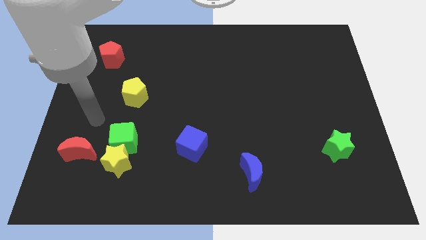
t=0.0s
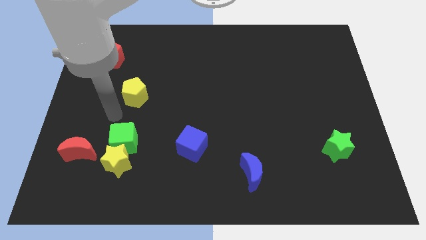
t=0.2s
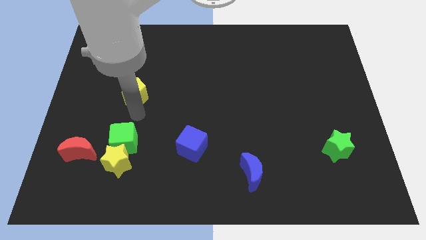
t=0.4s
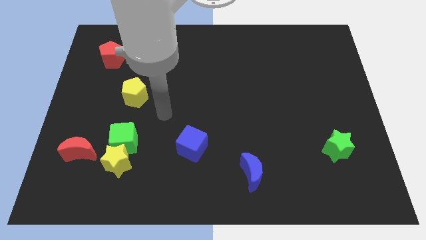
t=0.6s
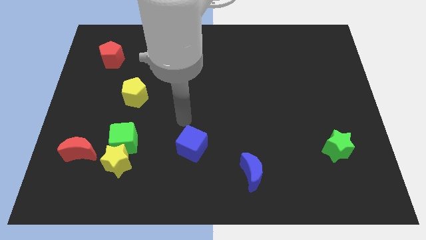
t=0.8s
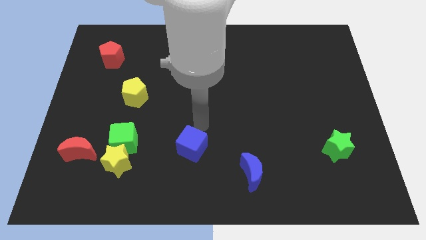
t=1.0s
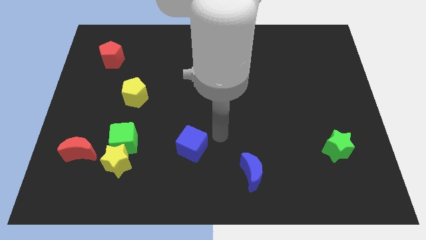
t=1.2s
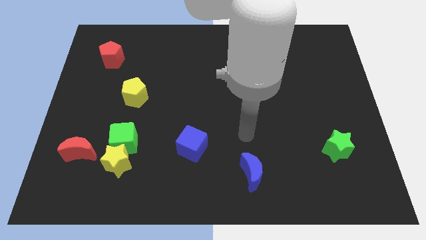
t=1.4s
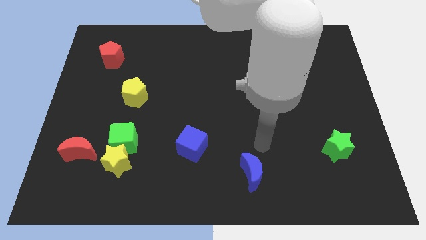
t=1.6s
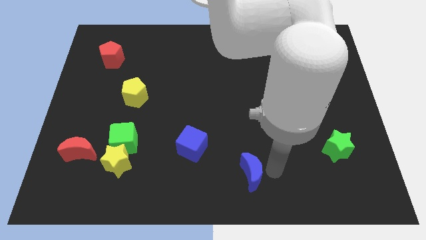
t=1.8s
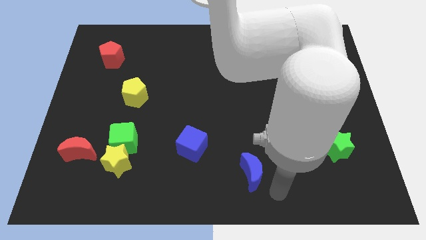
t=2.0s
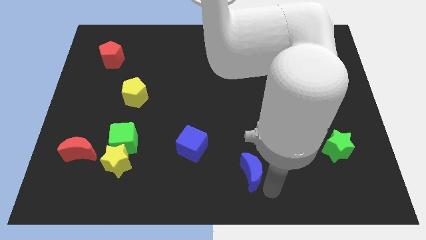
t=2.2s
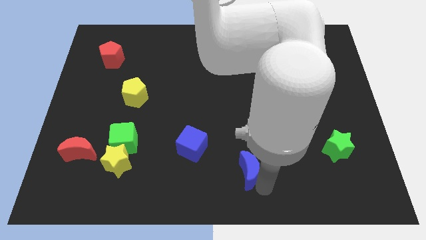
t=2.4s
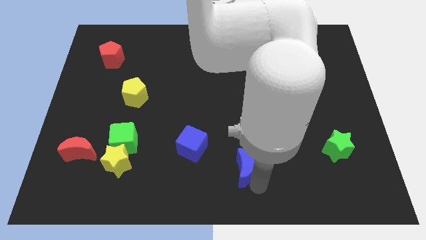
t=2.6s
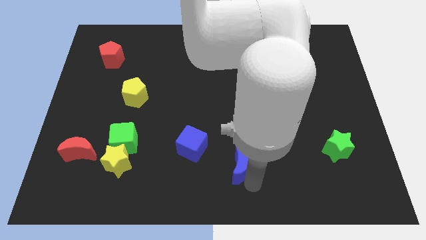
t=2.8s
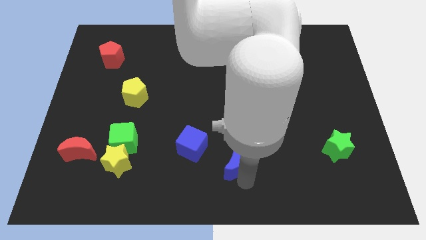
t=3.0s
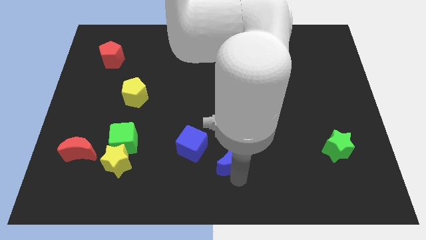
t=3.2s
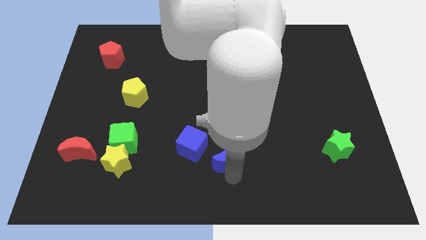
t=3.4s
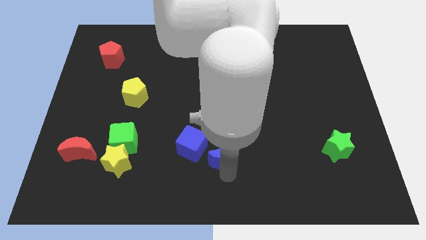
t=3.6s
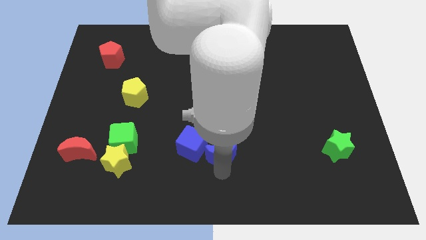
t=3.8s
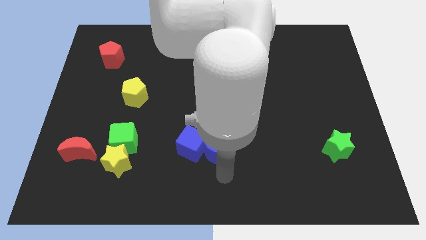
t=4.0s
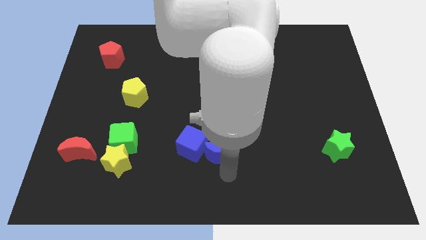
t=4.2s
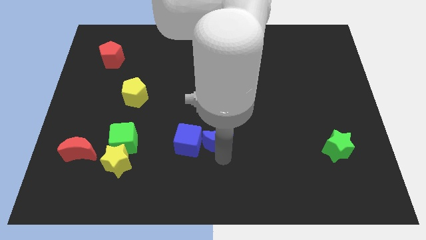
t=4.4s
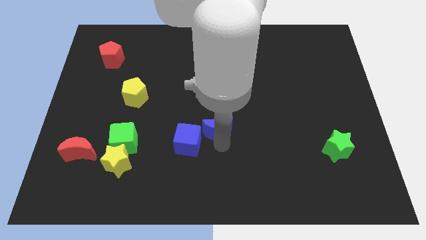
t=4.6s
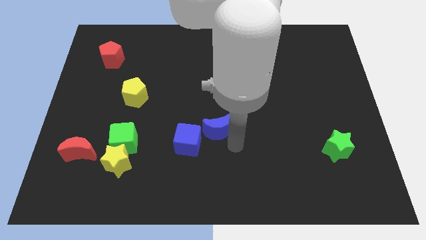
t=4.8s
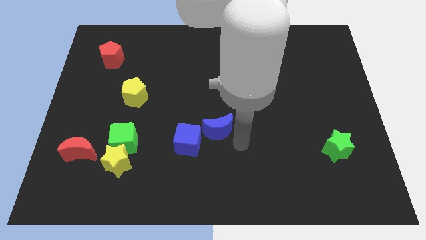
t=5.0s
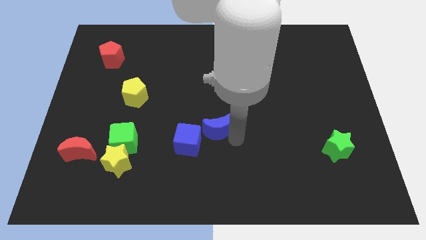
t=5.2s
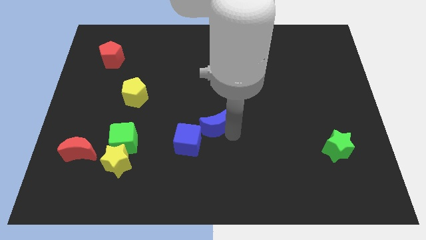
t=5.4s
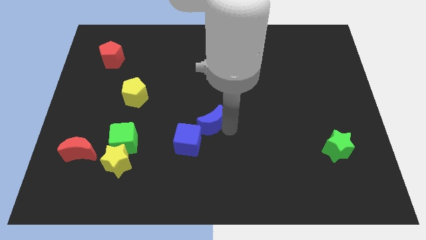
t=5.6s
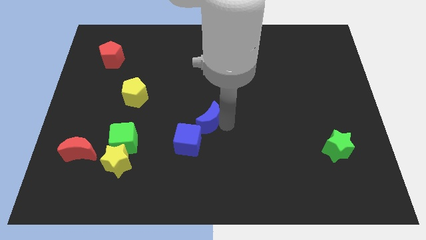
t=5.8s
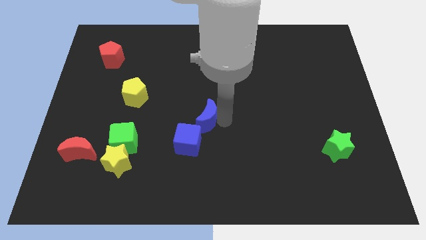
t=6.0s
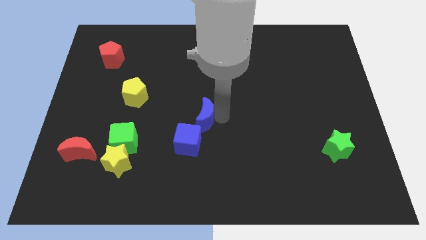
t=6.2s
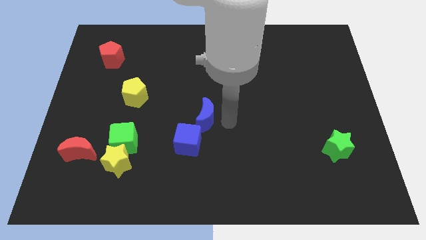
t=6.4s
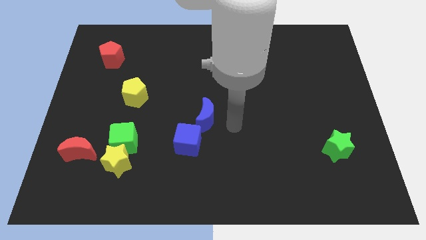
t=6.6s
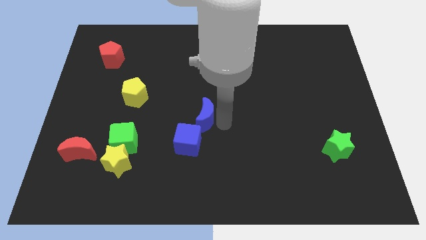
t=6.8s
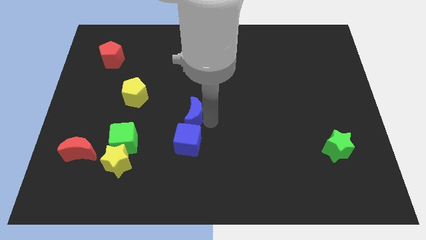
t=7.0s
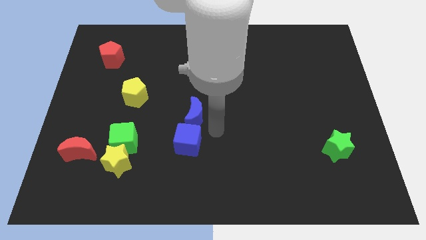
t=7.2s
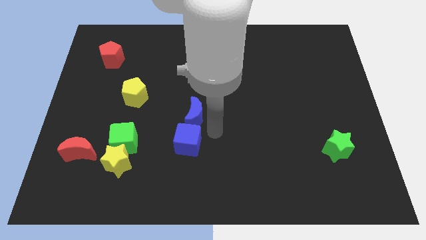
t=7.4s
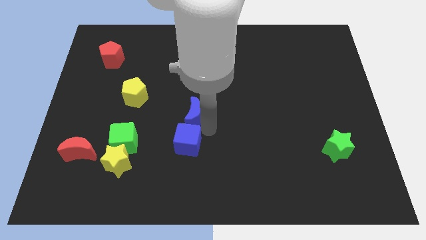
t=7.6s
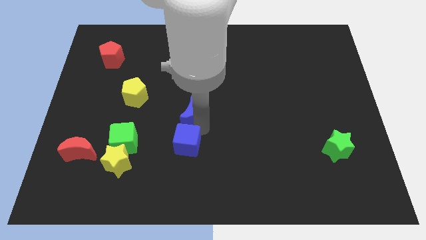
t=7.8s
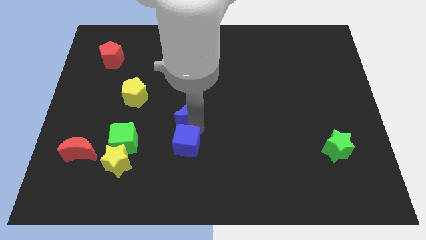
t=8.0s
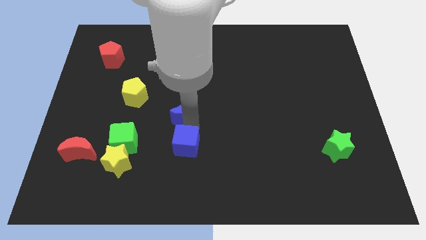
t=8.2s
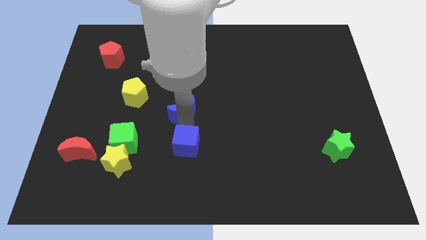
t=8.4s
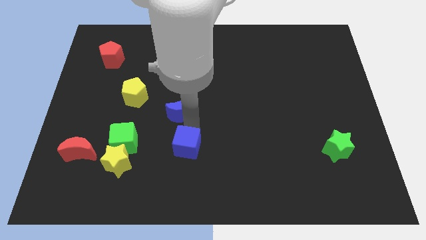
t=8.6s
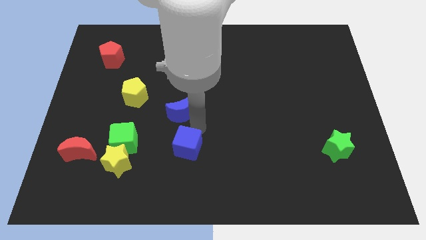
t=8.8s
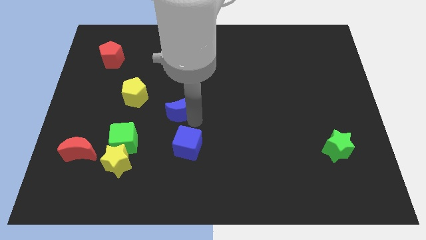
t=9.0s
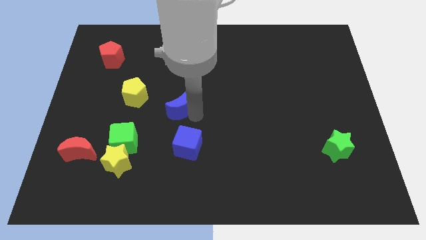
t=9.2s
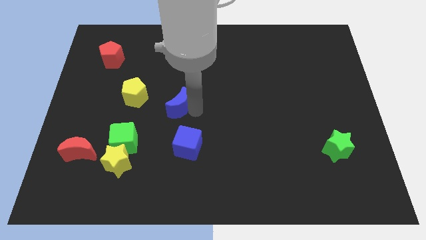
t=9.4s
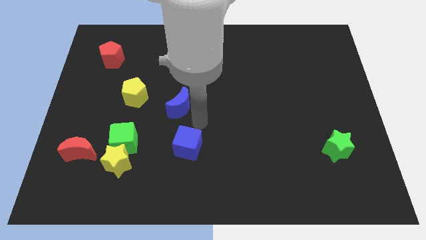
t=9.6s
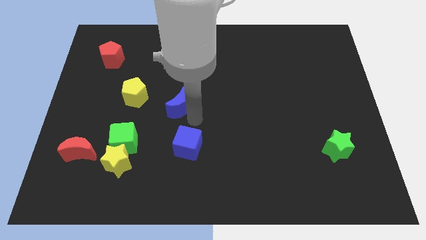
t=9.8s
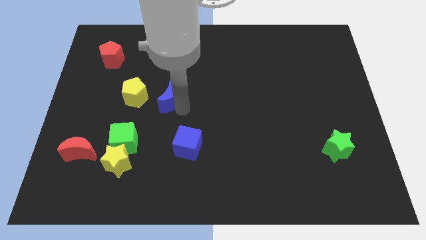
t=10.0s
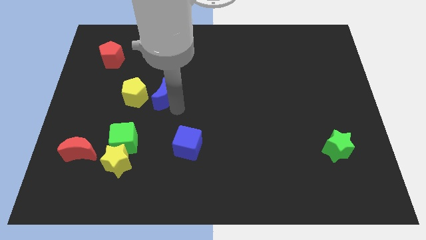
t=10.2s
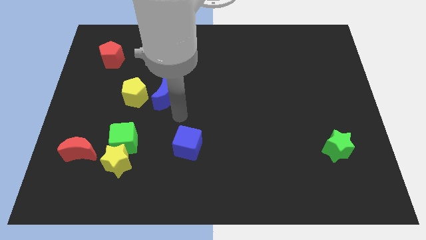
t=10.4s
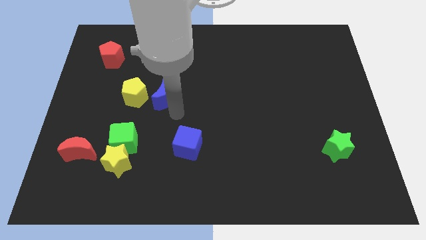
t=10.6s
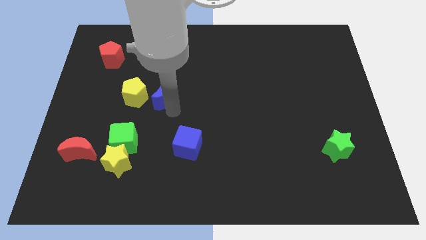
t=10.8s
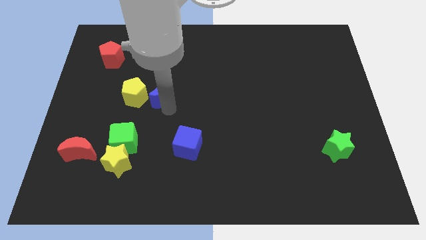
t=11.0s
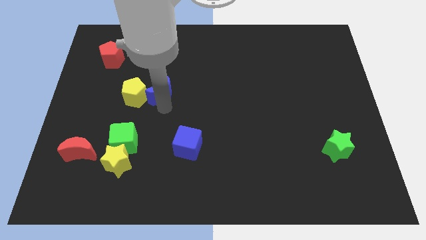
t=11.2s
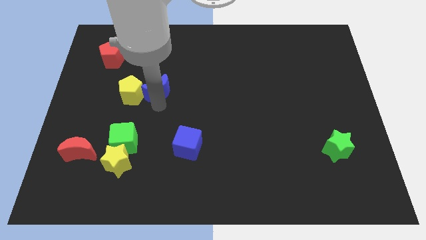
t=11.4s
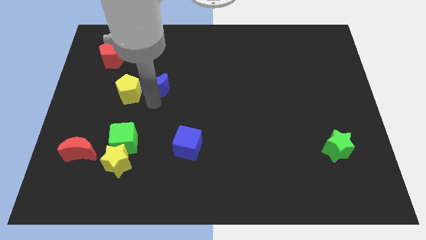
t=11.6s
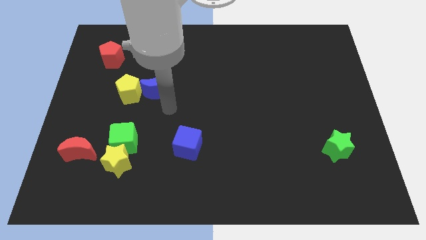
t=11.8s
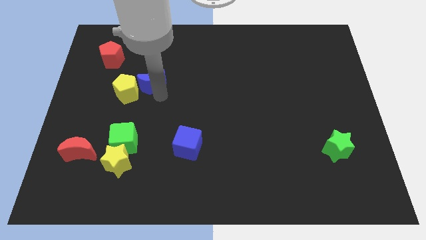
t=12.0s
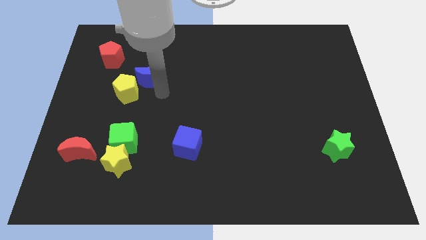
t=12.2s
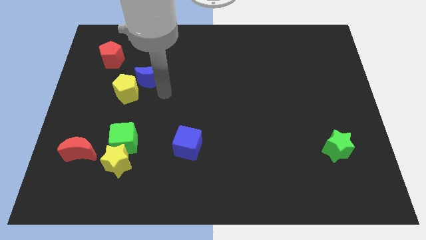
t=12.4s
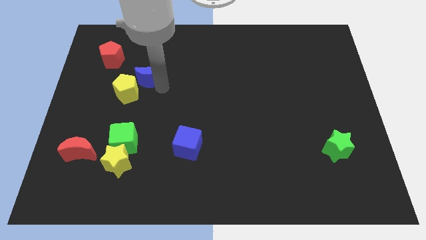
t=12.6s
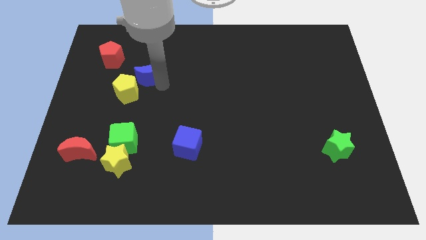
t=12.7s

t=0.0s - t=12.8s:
slide the blue moon to the top of the yellow pentagon

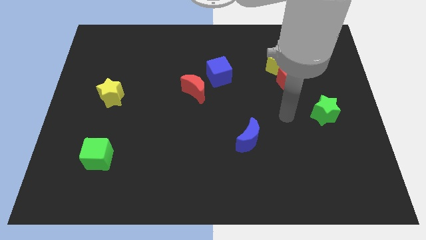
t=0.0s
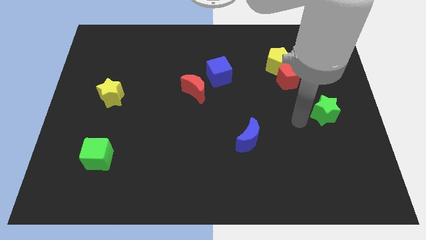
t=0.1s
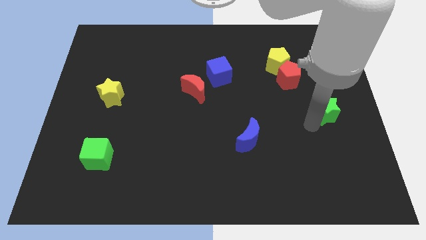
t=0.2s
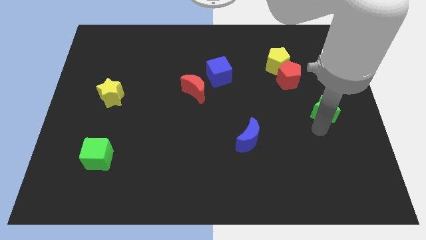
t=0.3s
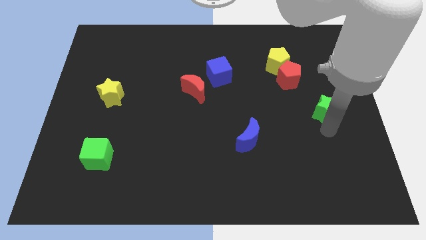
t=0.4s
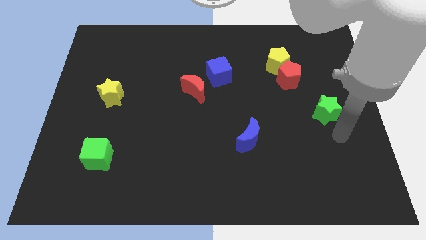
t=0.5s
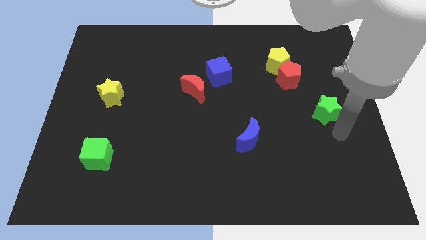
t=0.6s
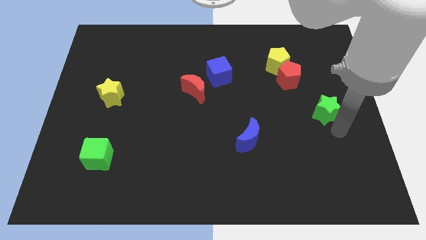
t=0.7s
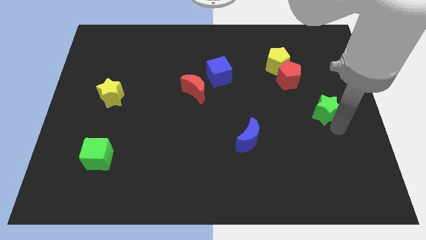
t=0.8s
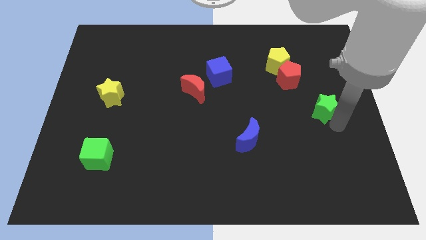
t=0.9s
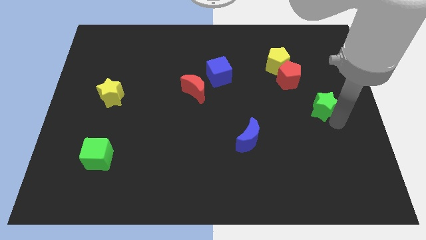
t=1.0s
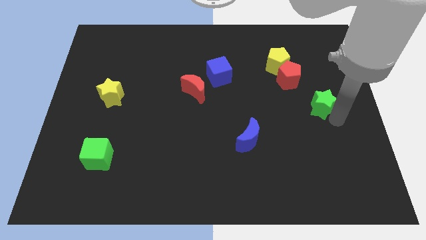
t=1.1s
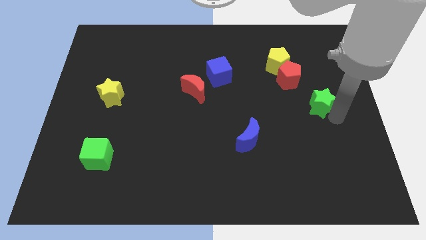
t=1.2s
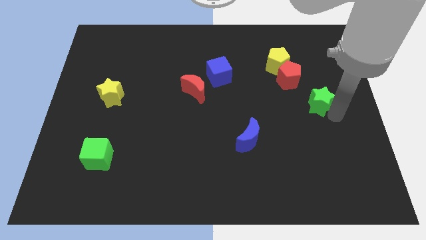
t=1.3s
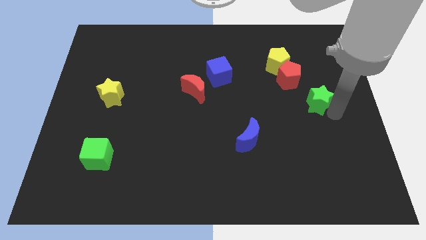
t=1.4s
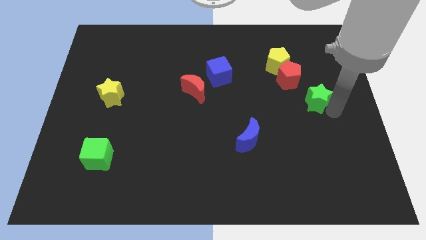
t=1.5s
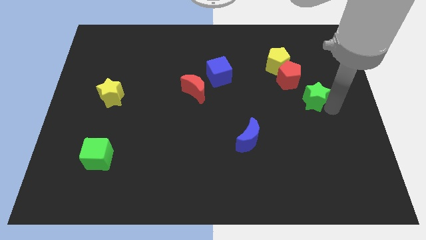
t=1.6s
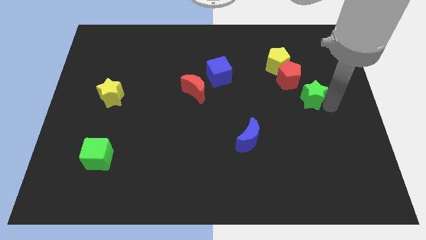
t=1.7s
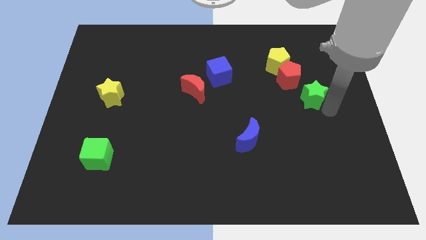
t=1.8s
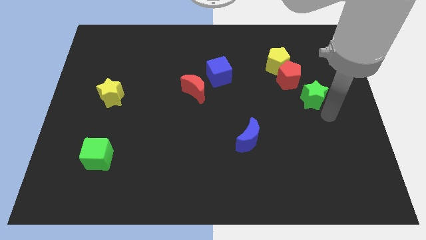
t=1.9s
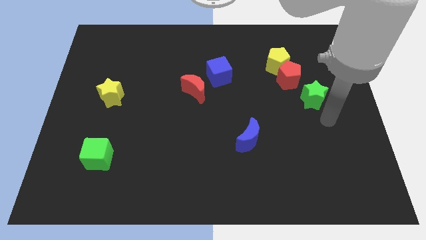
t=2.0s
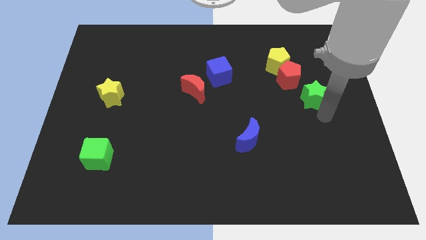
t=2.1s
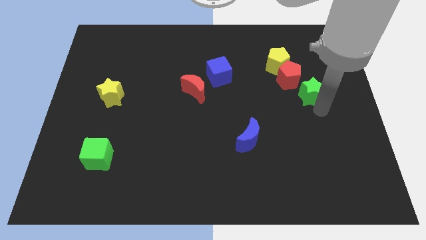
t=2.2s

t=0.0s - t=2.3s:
push the green star to the bottom right side of the yellow pentagon
